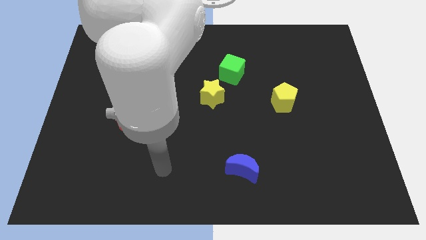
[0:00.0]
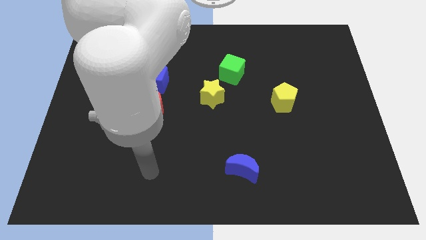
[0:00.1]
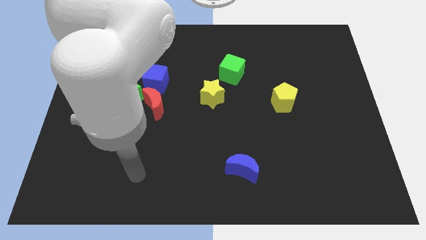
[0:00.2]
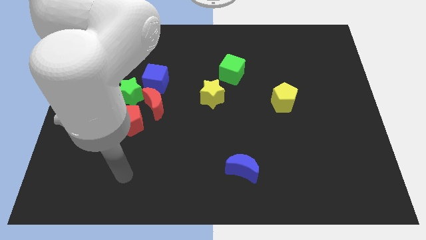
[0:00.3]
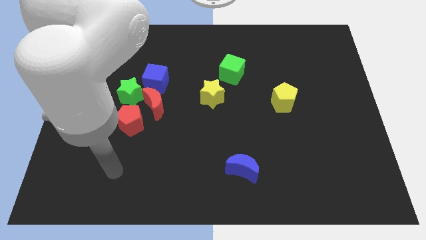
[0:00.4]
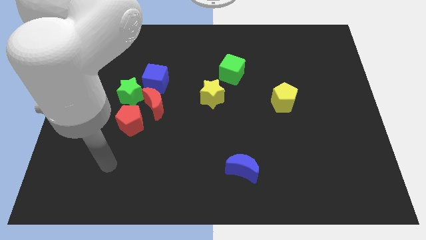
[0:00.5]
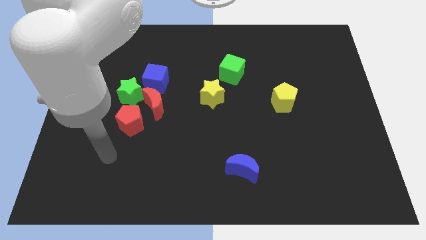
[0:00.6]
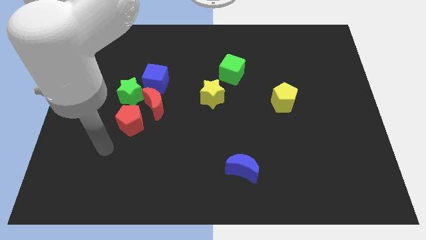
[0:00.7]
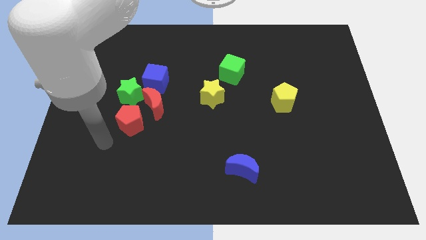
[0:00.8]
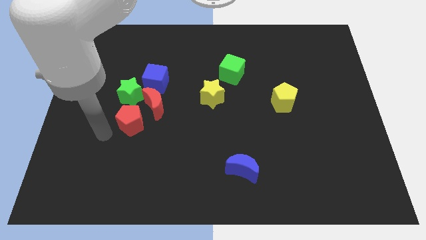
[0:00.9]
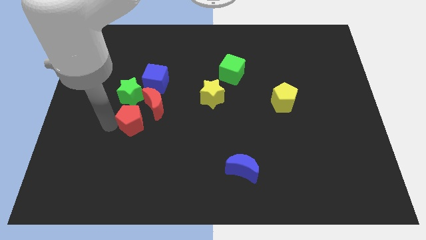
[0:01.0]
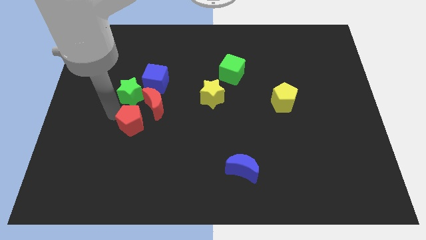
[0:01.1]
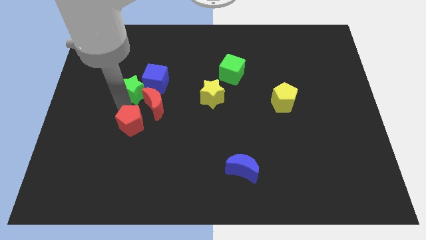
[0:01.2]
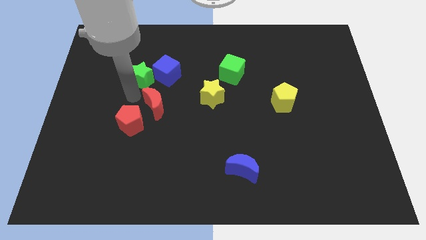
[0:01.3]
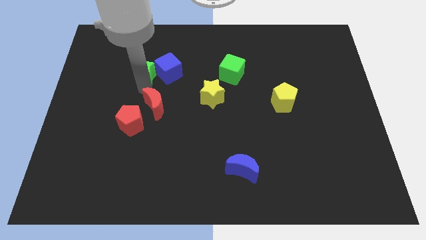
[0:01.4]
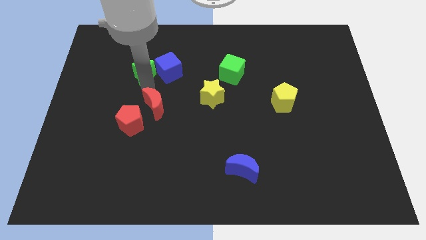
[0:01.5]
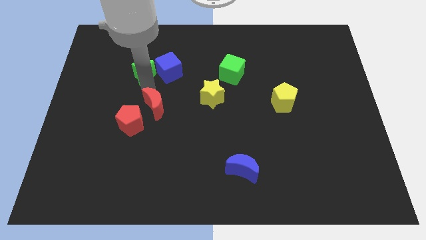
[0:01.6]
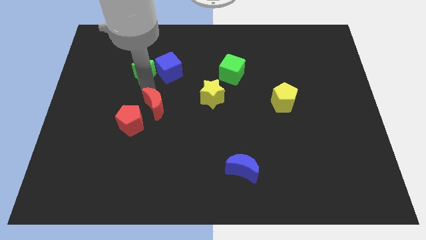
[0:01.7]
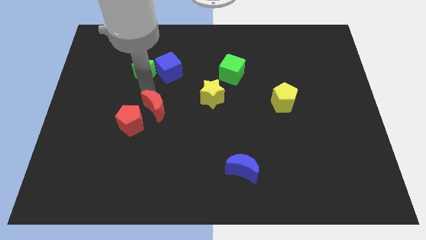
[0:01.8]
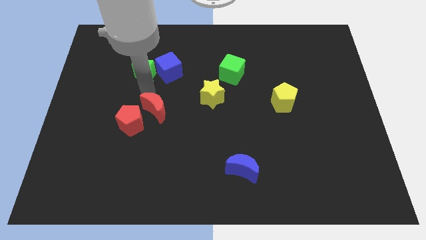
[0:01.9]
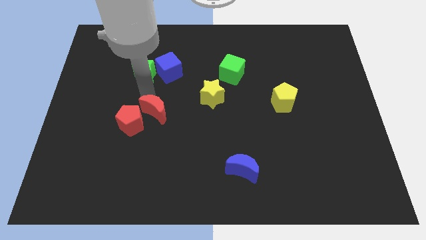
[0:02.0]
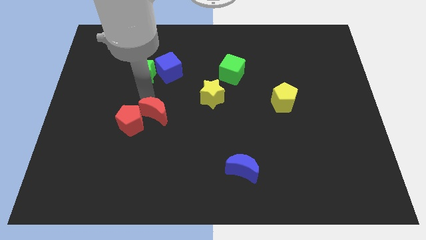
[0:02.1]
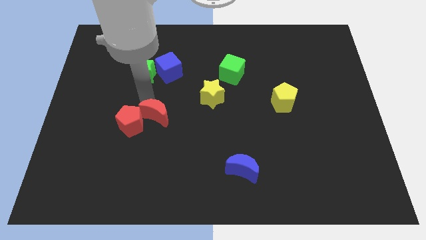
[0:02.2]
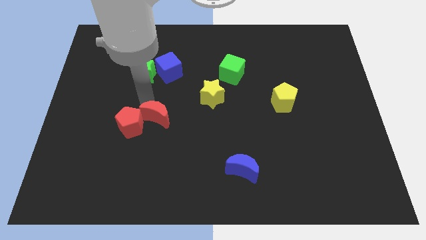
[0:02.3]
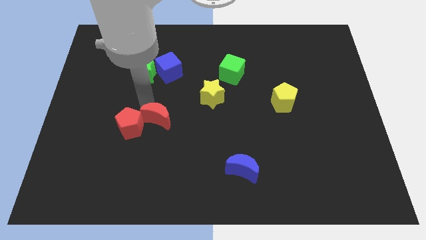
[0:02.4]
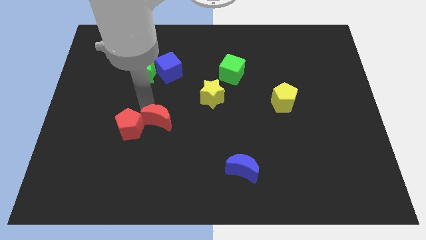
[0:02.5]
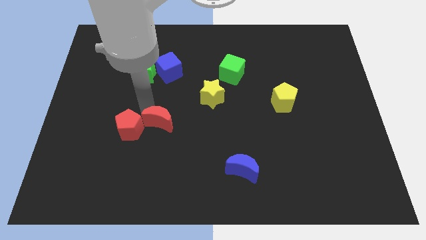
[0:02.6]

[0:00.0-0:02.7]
pull the red moon apart from the group of blocks

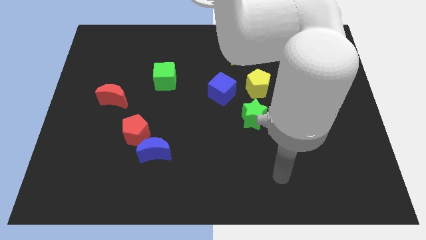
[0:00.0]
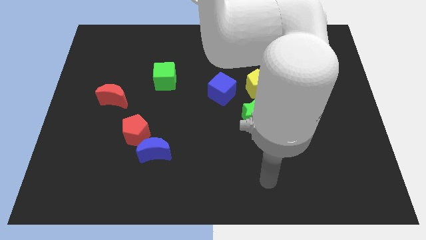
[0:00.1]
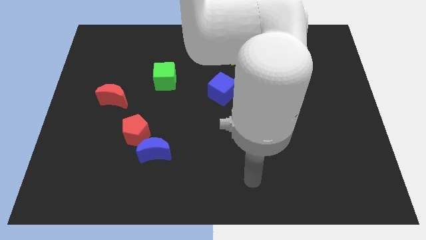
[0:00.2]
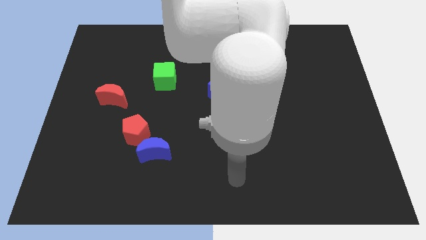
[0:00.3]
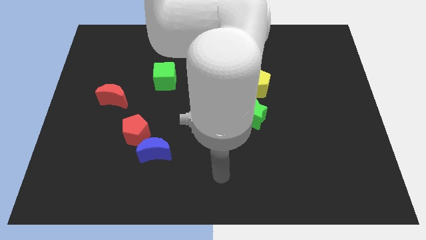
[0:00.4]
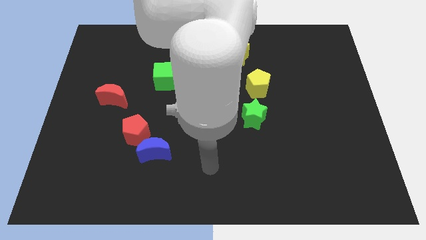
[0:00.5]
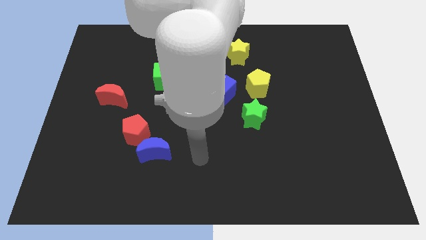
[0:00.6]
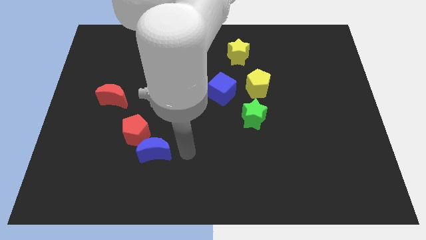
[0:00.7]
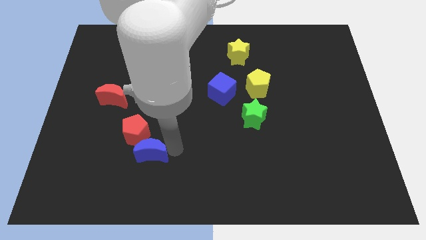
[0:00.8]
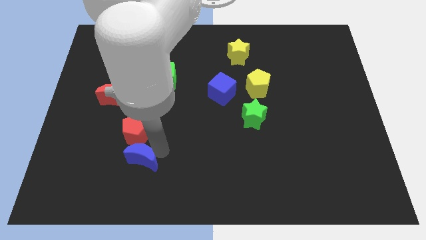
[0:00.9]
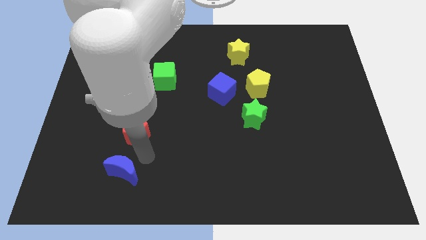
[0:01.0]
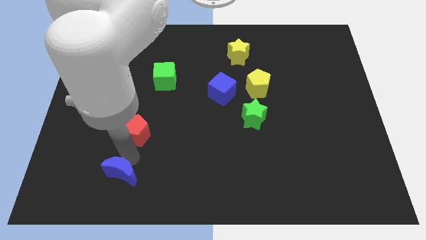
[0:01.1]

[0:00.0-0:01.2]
separate the red pentagon from the blue moon

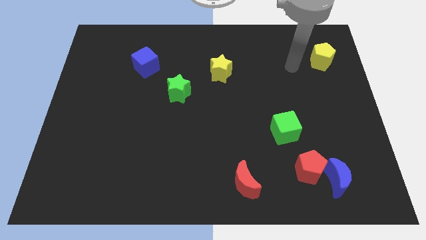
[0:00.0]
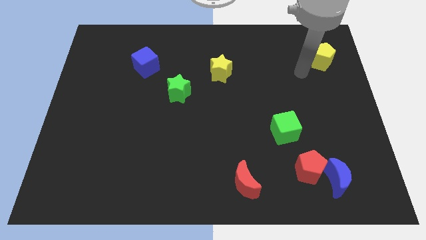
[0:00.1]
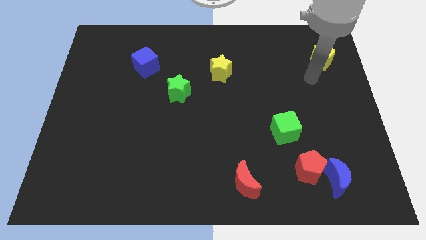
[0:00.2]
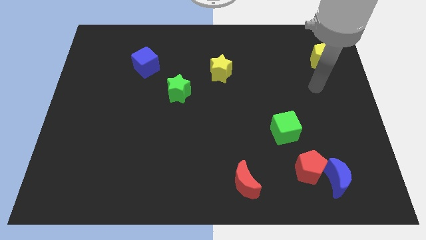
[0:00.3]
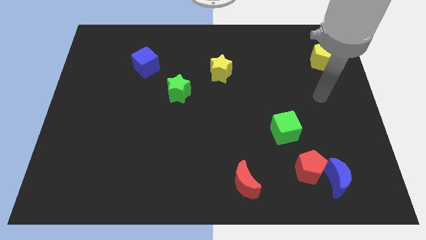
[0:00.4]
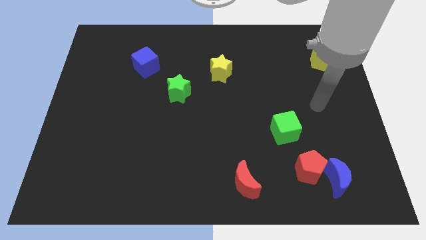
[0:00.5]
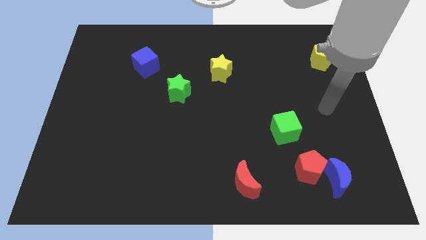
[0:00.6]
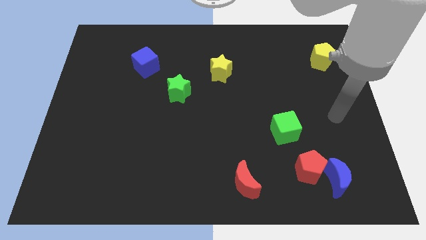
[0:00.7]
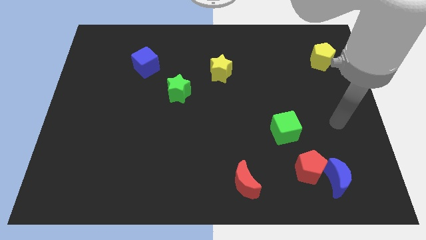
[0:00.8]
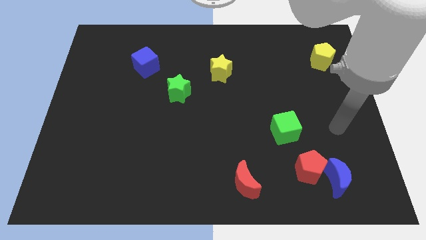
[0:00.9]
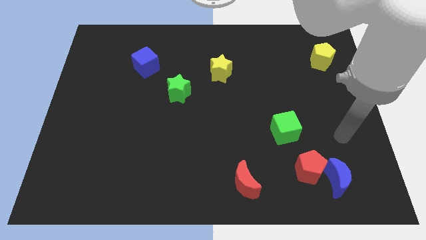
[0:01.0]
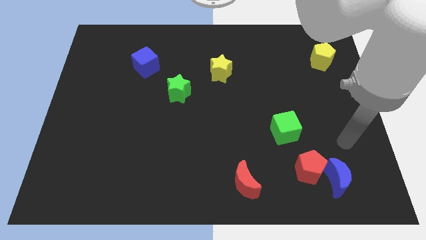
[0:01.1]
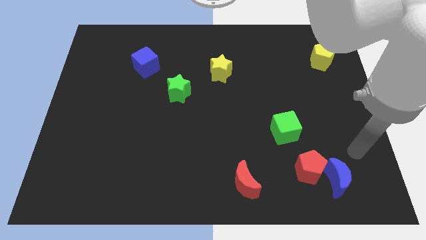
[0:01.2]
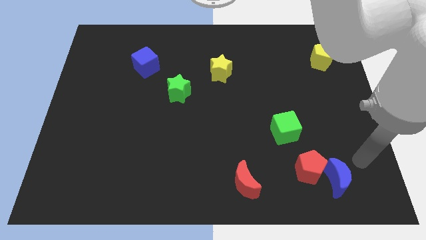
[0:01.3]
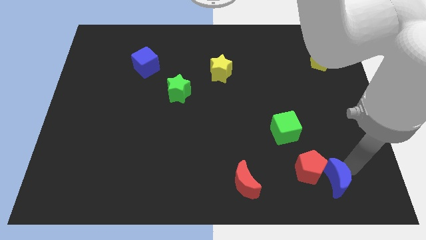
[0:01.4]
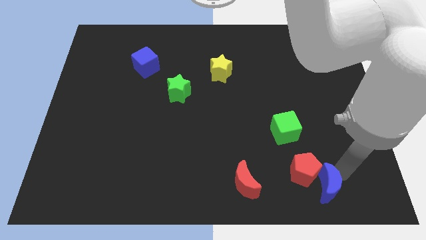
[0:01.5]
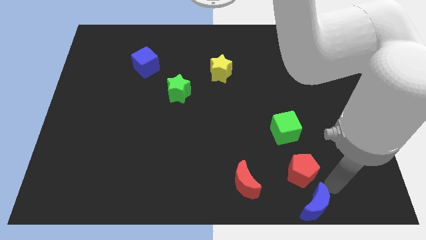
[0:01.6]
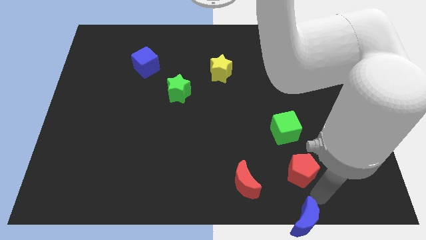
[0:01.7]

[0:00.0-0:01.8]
pull the red pentagon apart from the blue moon

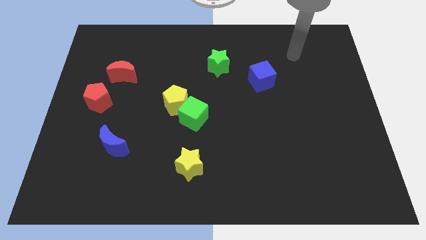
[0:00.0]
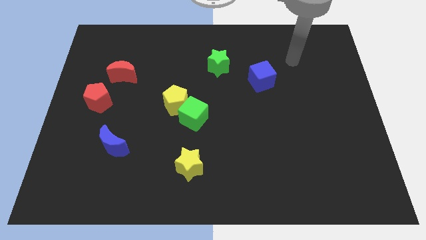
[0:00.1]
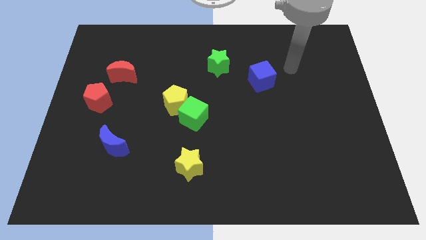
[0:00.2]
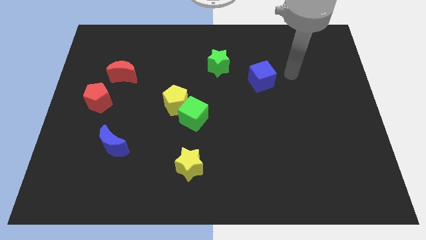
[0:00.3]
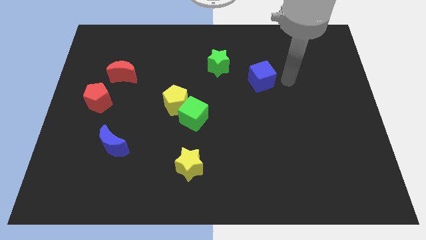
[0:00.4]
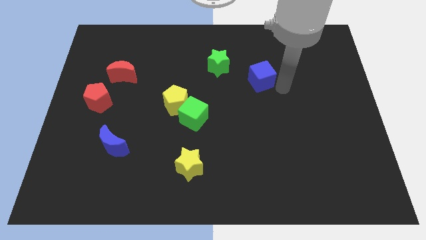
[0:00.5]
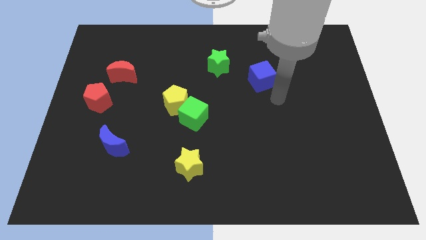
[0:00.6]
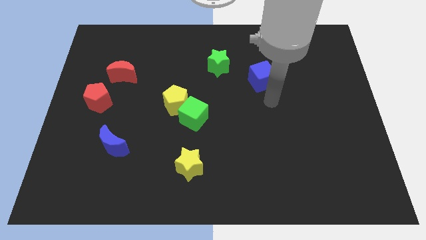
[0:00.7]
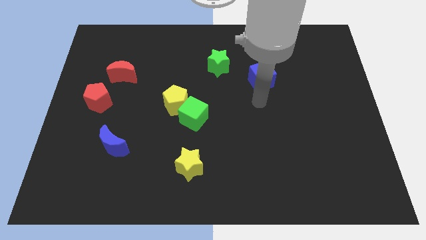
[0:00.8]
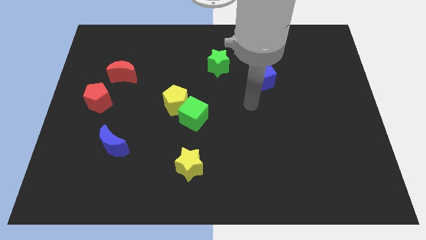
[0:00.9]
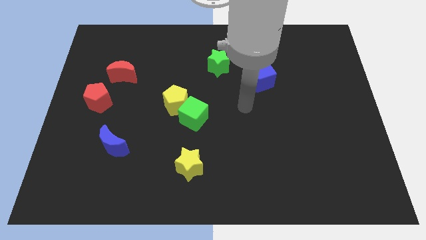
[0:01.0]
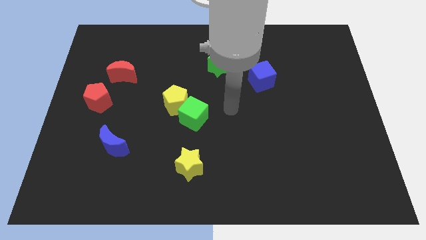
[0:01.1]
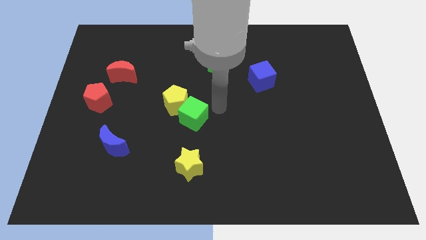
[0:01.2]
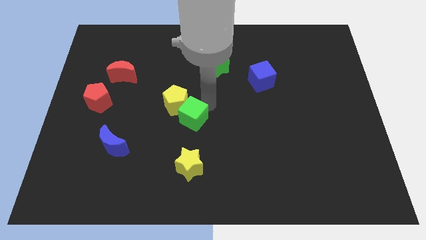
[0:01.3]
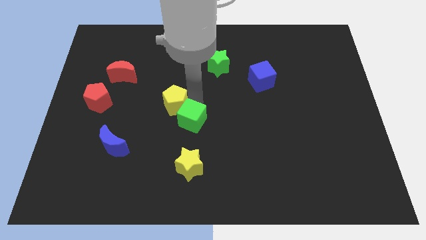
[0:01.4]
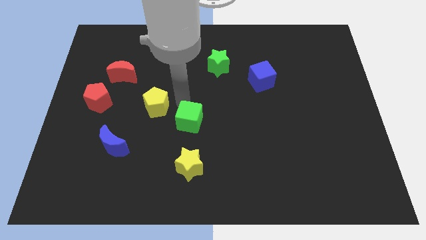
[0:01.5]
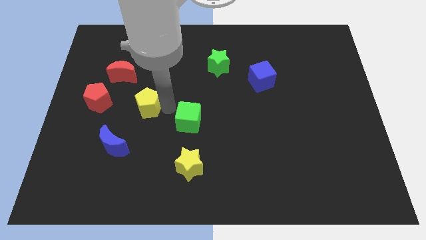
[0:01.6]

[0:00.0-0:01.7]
move the green cube away from the yellow pentagon

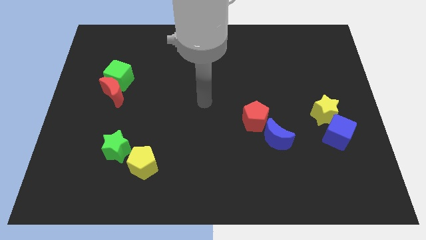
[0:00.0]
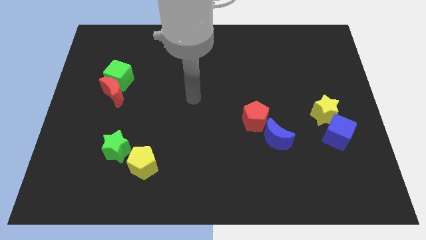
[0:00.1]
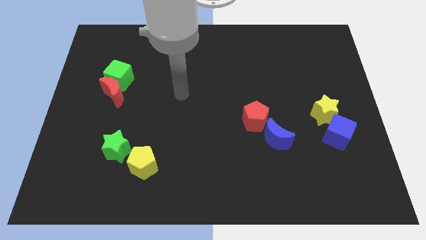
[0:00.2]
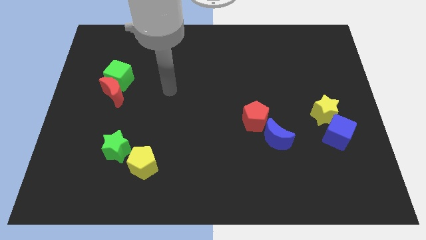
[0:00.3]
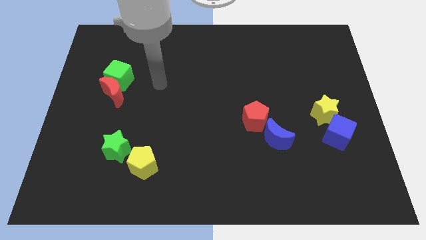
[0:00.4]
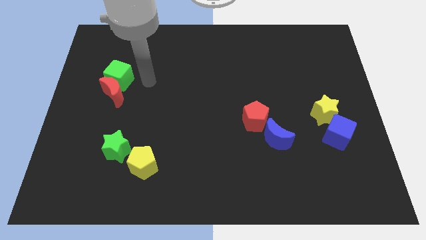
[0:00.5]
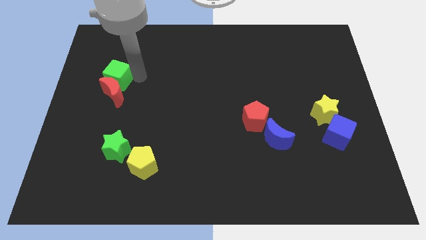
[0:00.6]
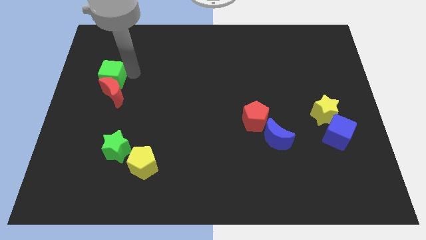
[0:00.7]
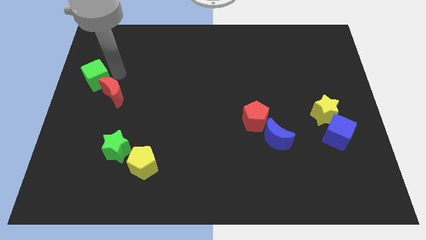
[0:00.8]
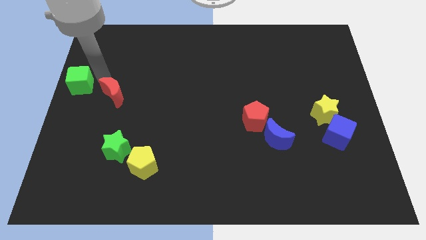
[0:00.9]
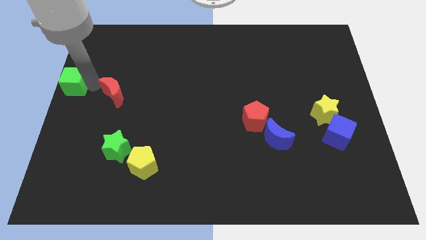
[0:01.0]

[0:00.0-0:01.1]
separate the red moon from the green cube

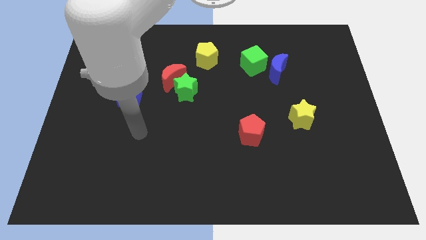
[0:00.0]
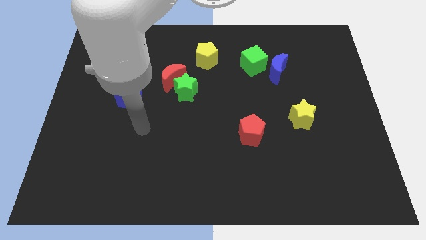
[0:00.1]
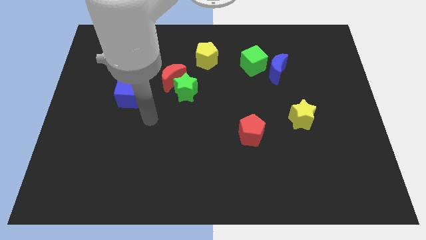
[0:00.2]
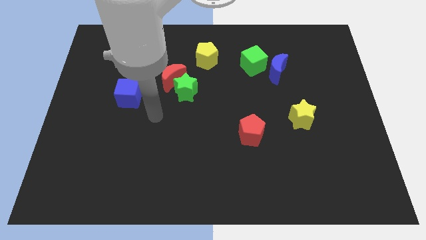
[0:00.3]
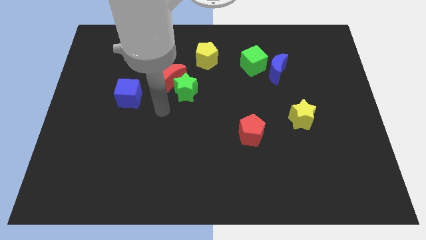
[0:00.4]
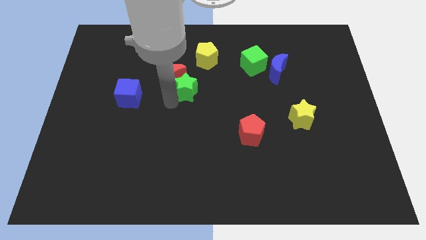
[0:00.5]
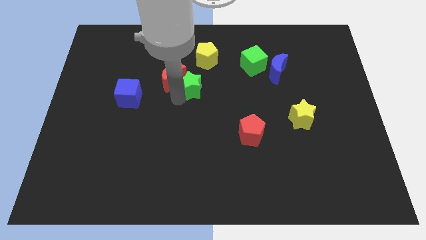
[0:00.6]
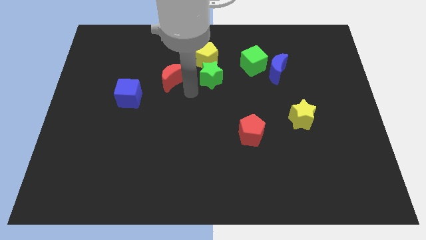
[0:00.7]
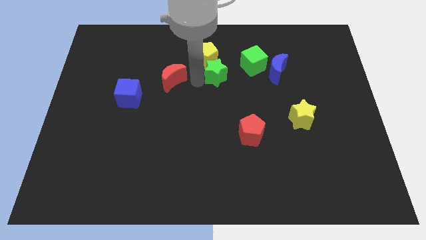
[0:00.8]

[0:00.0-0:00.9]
separate the red moon from the green star
